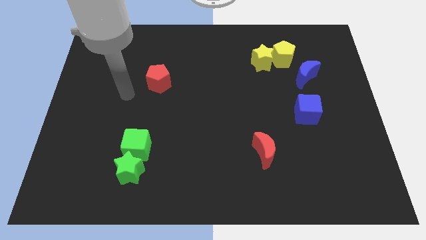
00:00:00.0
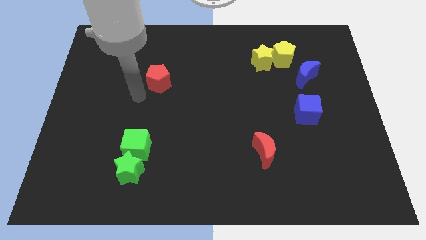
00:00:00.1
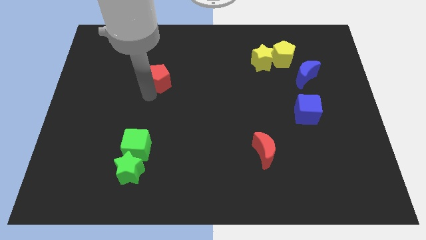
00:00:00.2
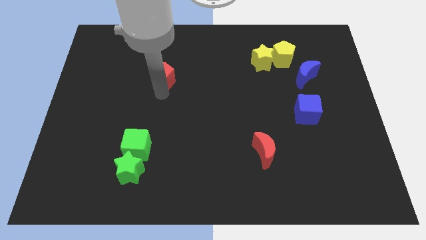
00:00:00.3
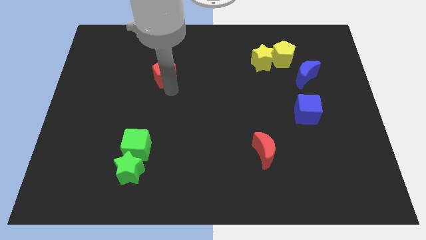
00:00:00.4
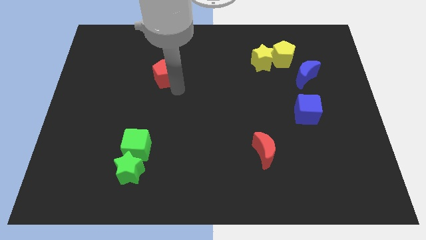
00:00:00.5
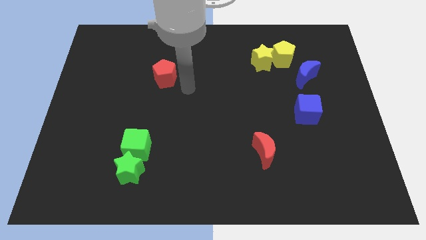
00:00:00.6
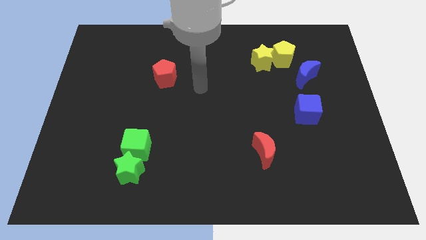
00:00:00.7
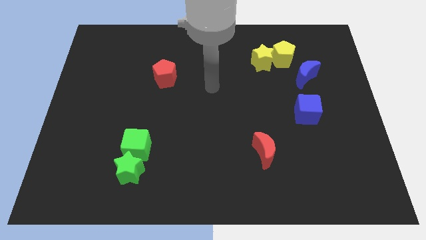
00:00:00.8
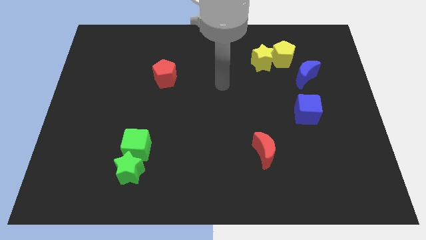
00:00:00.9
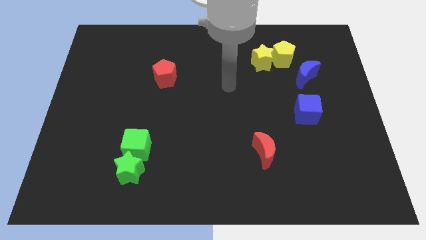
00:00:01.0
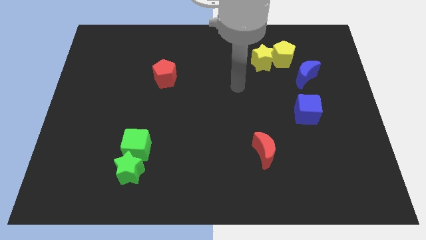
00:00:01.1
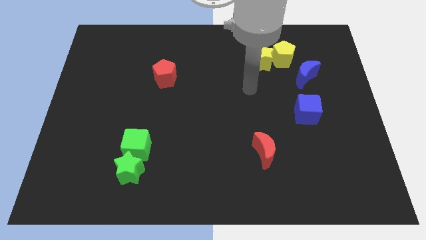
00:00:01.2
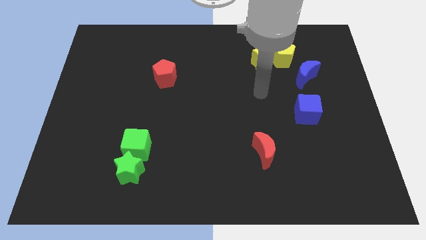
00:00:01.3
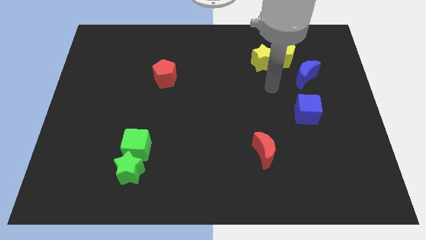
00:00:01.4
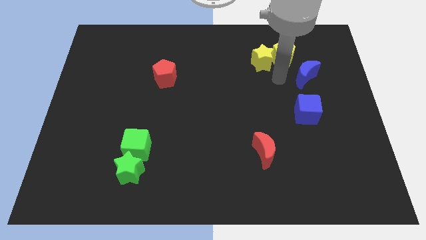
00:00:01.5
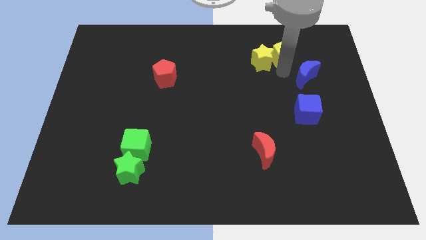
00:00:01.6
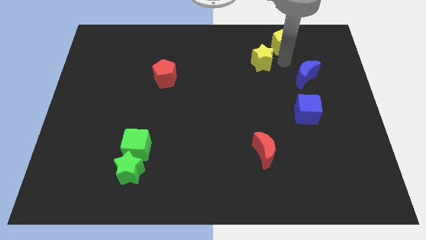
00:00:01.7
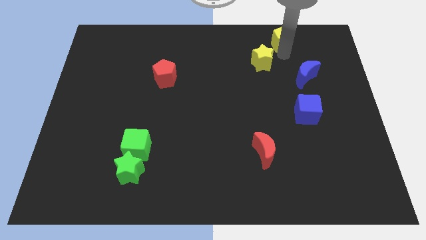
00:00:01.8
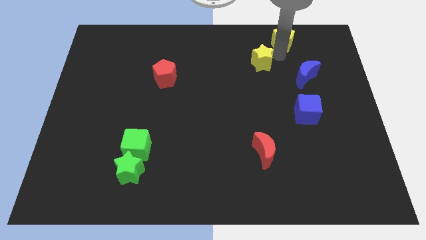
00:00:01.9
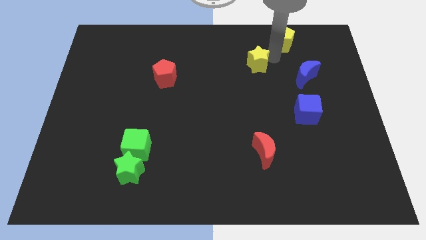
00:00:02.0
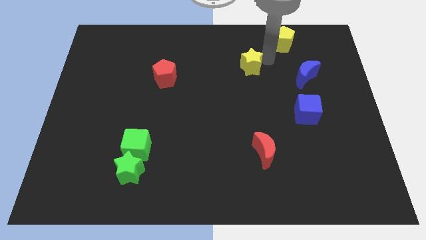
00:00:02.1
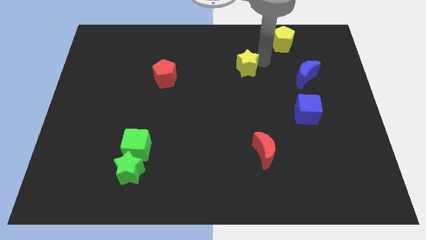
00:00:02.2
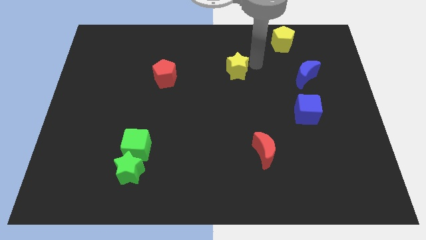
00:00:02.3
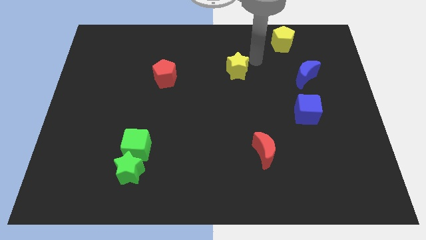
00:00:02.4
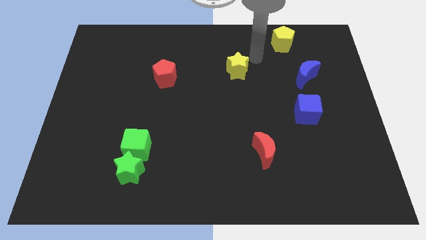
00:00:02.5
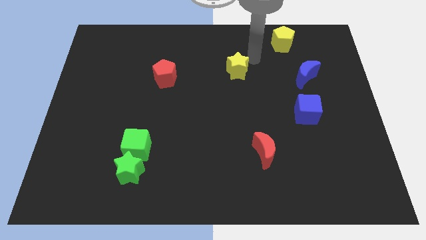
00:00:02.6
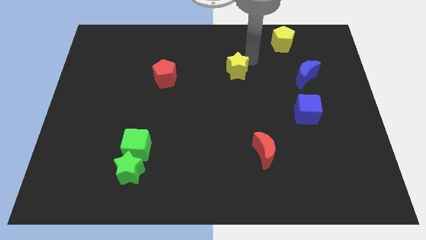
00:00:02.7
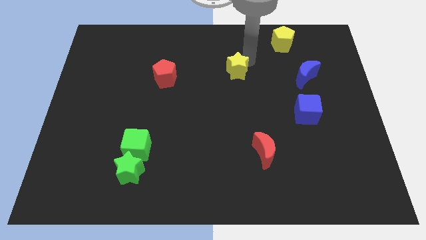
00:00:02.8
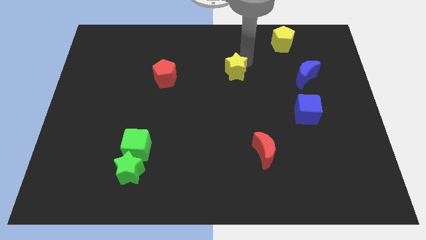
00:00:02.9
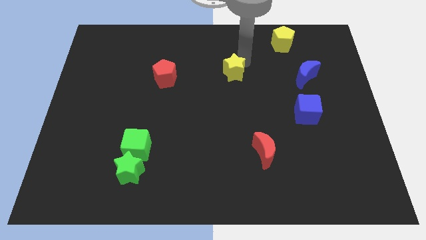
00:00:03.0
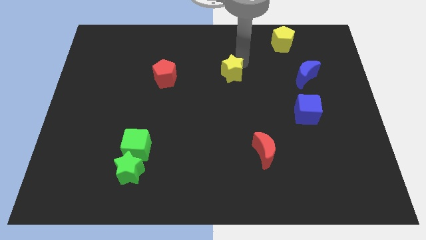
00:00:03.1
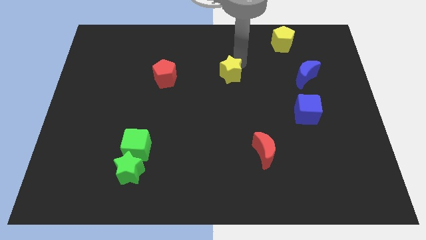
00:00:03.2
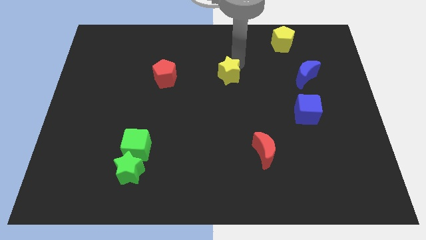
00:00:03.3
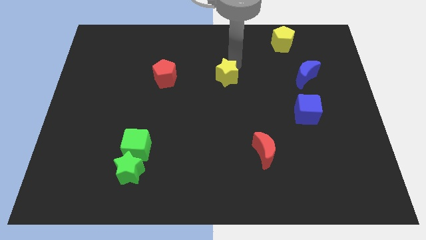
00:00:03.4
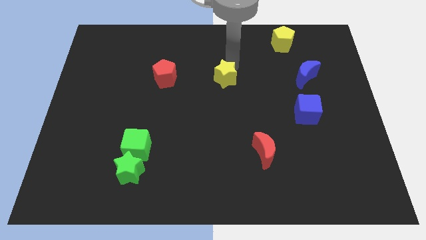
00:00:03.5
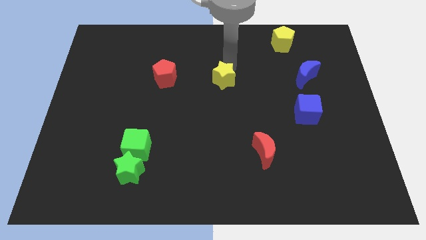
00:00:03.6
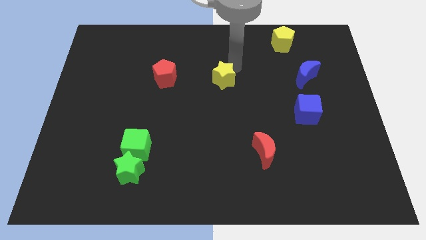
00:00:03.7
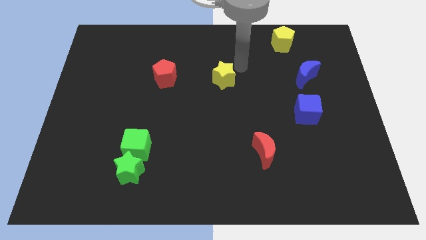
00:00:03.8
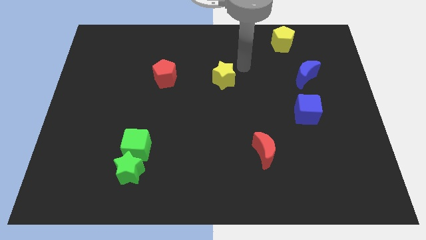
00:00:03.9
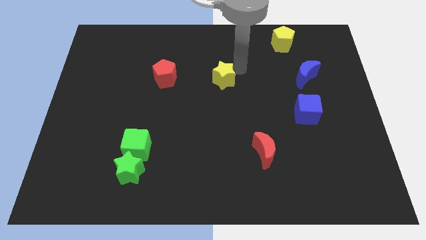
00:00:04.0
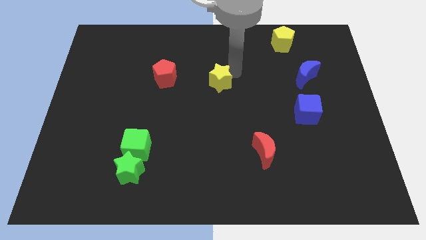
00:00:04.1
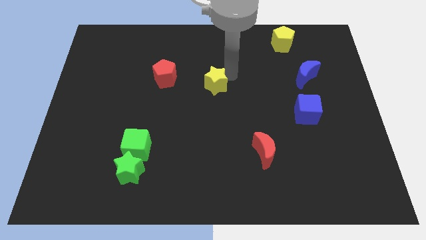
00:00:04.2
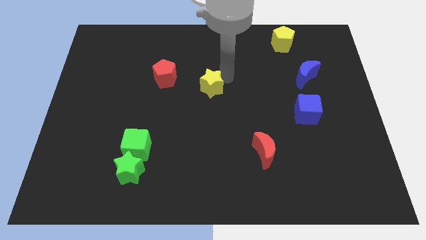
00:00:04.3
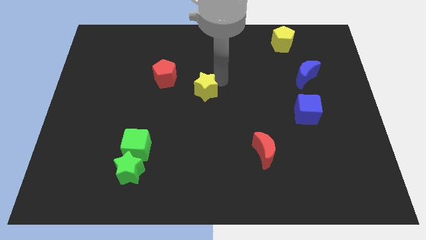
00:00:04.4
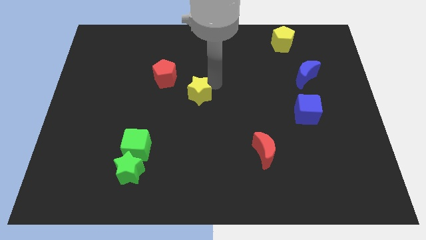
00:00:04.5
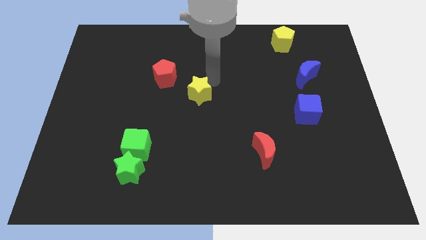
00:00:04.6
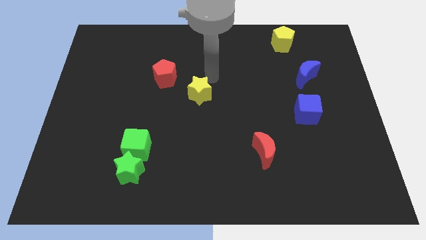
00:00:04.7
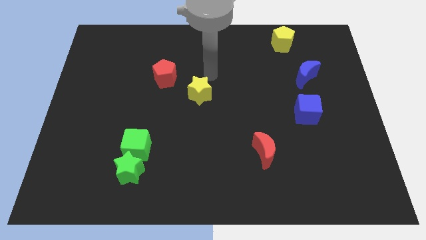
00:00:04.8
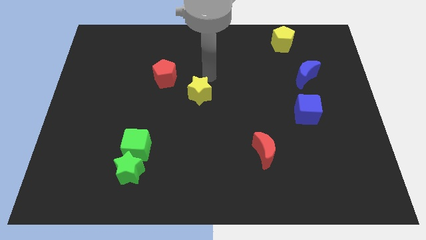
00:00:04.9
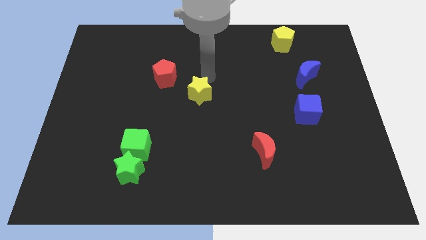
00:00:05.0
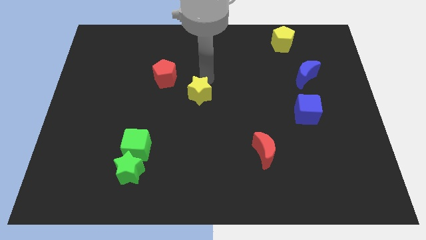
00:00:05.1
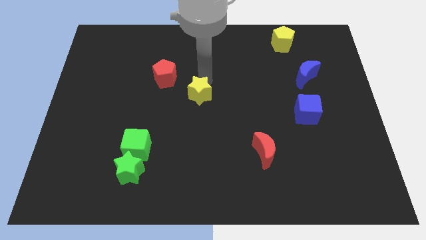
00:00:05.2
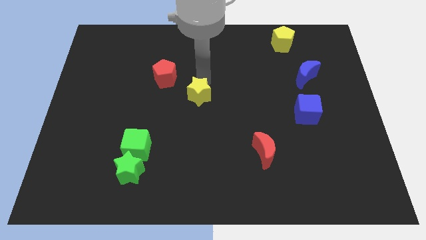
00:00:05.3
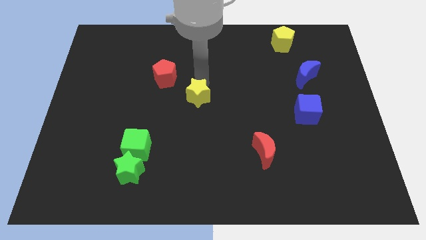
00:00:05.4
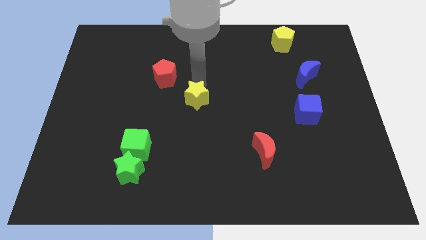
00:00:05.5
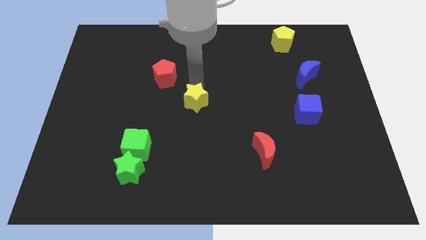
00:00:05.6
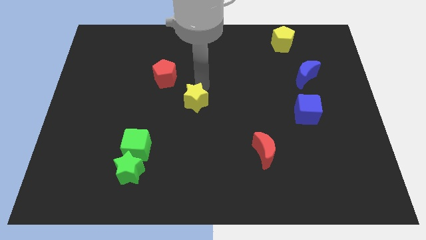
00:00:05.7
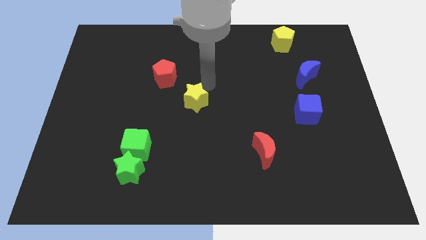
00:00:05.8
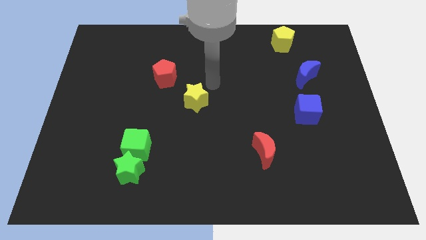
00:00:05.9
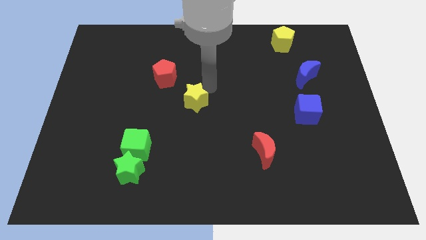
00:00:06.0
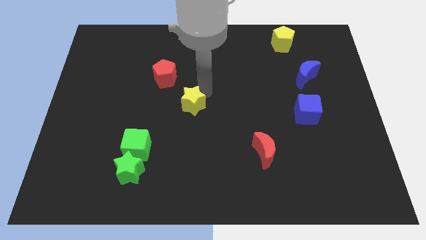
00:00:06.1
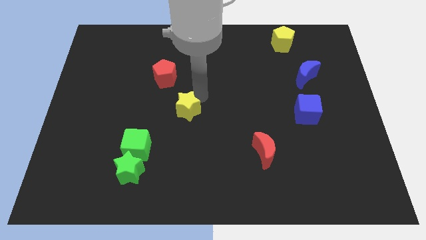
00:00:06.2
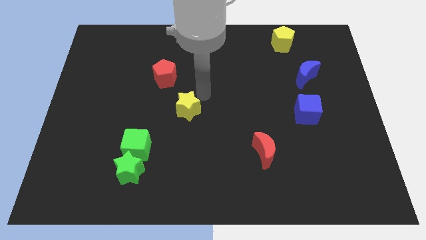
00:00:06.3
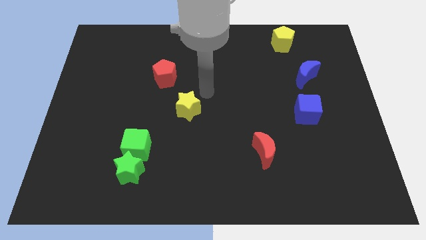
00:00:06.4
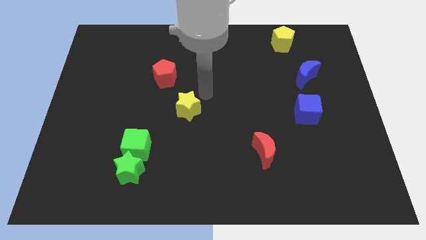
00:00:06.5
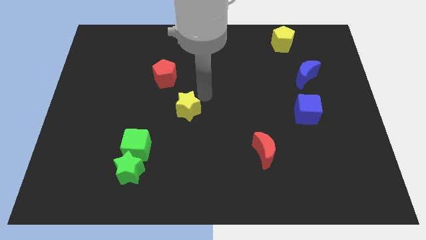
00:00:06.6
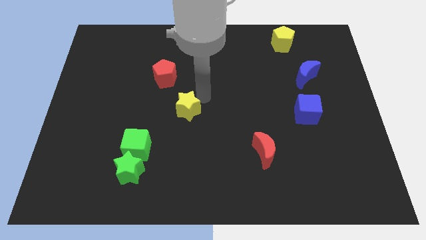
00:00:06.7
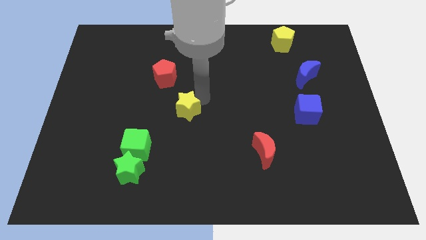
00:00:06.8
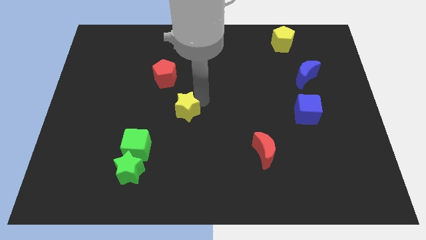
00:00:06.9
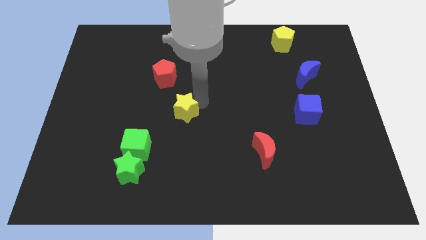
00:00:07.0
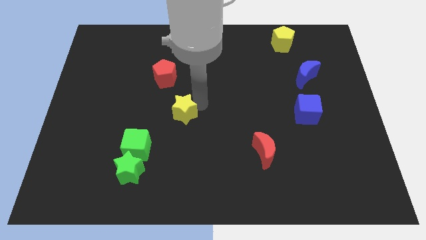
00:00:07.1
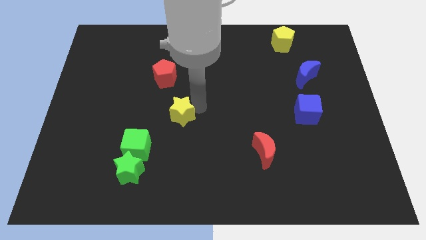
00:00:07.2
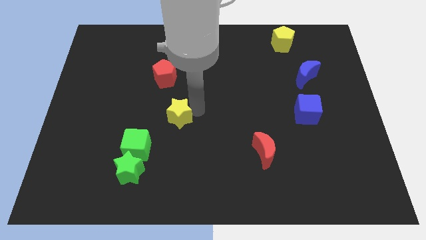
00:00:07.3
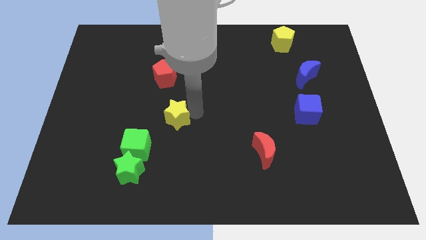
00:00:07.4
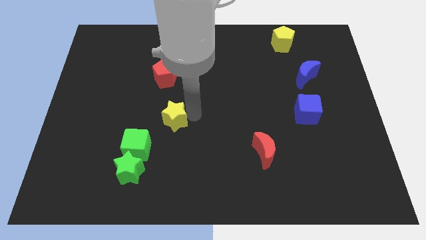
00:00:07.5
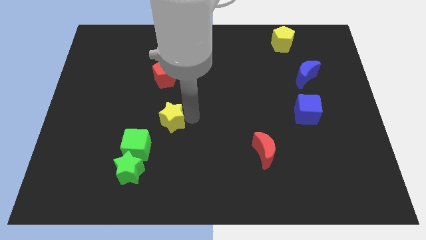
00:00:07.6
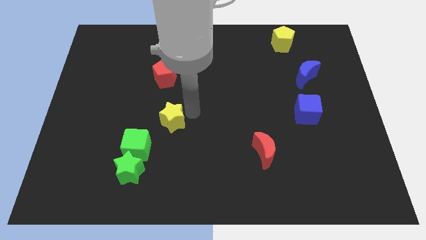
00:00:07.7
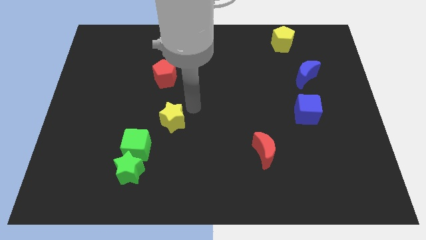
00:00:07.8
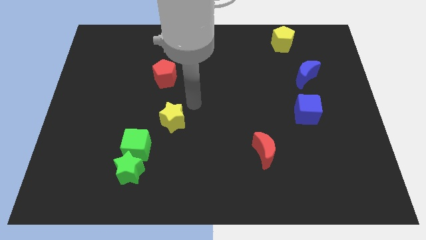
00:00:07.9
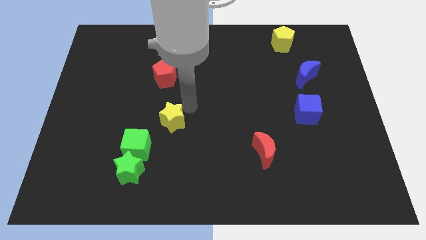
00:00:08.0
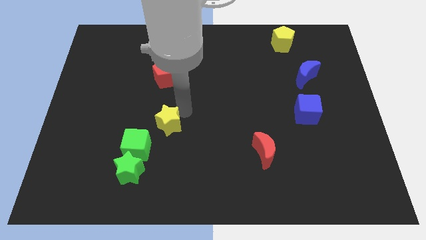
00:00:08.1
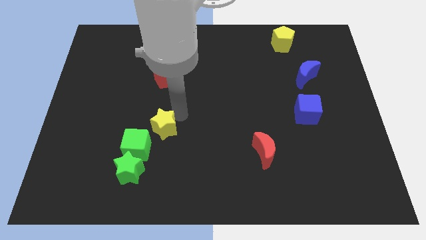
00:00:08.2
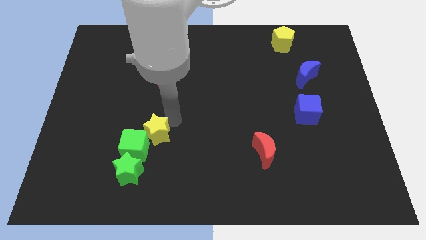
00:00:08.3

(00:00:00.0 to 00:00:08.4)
slide the yellow star to the green cube
